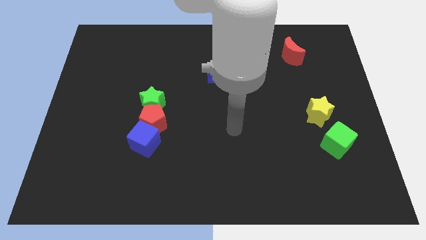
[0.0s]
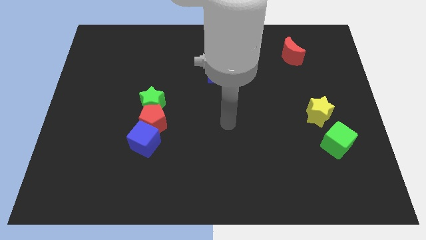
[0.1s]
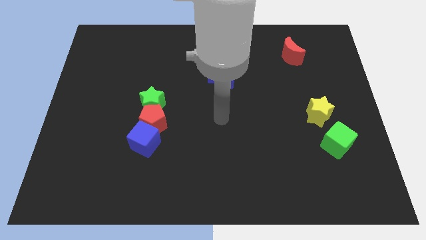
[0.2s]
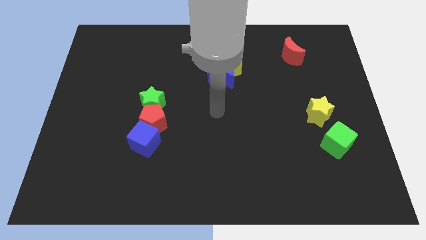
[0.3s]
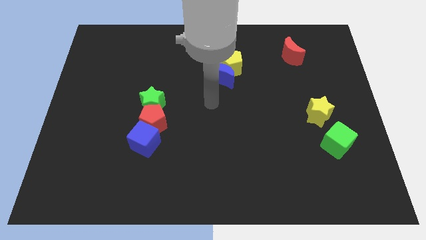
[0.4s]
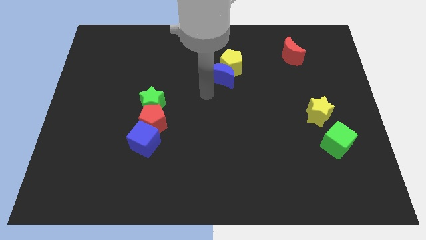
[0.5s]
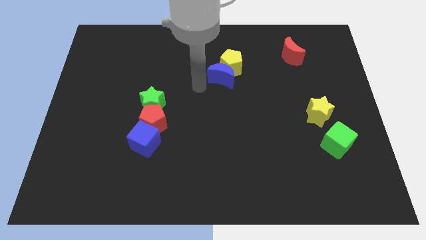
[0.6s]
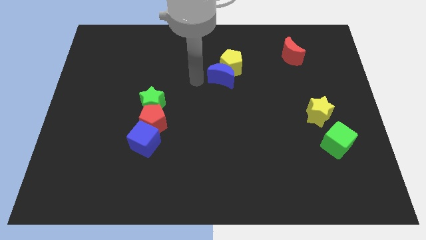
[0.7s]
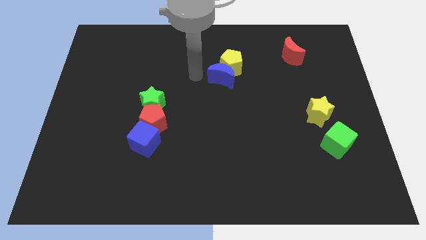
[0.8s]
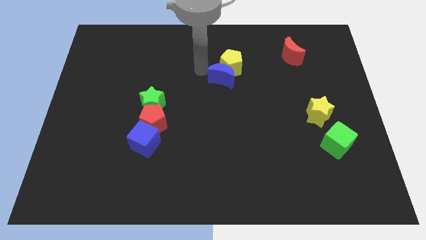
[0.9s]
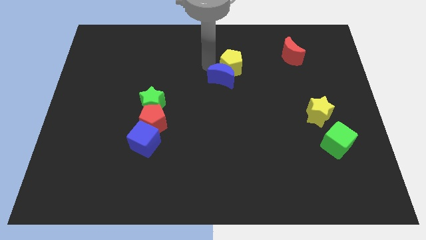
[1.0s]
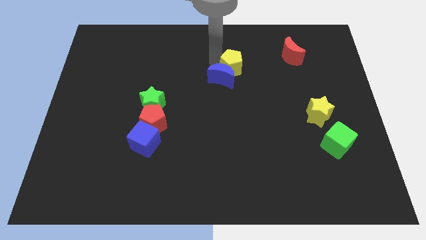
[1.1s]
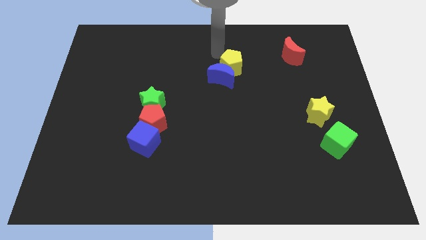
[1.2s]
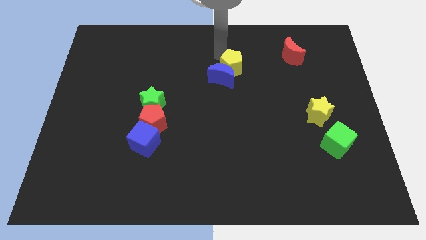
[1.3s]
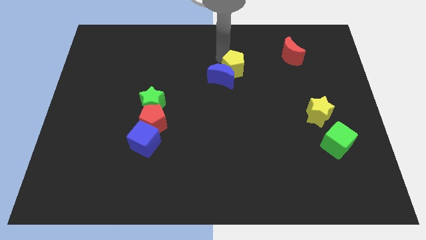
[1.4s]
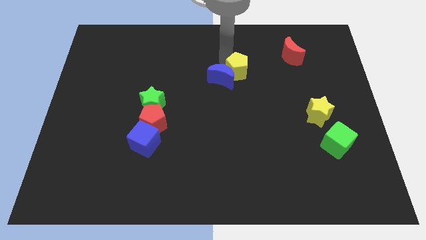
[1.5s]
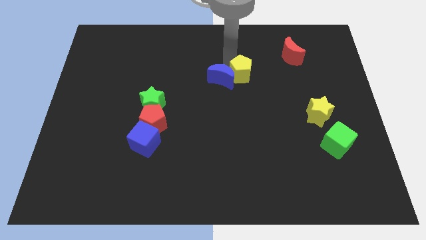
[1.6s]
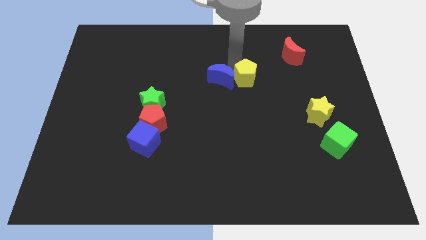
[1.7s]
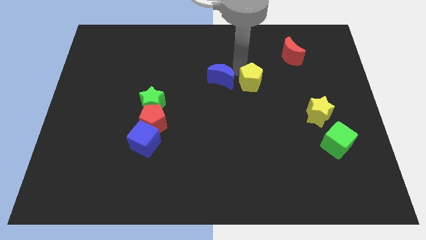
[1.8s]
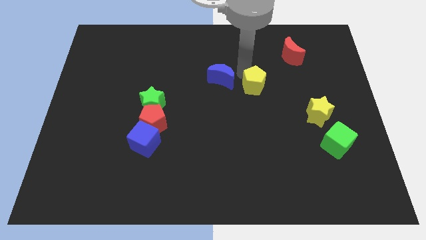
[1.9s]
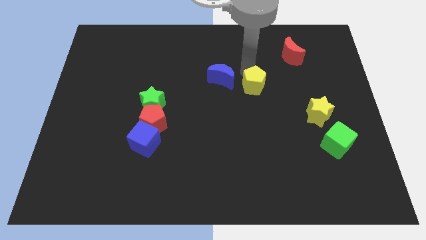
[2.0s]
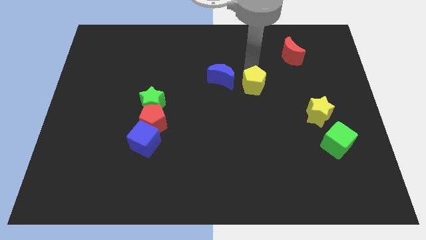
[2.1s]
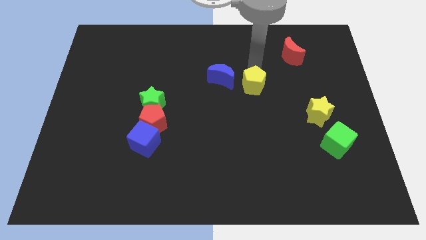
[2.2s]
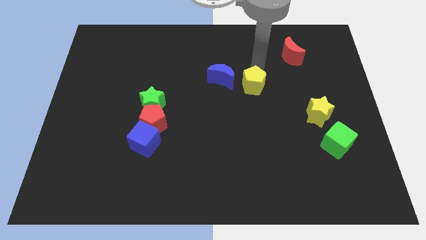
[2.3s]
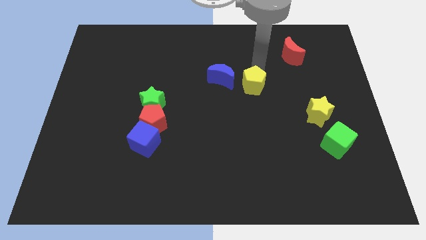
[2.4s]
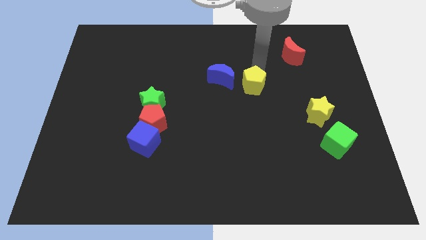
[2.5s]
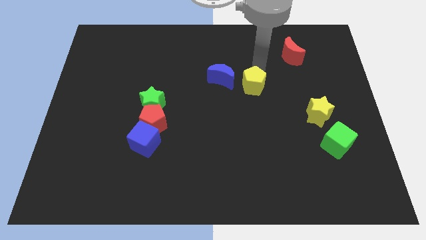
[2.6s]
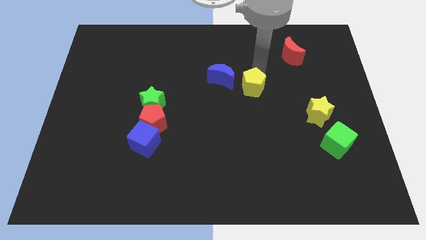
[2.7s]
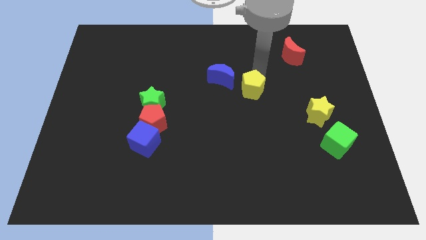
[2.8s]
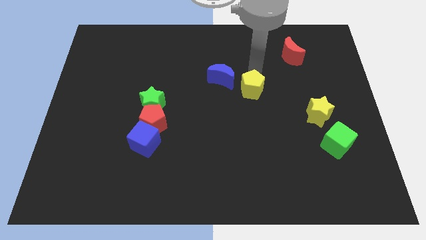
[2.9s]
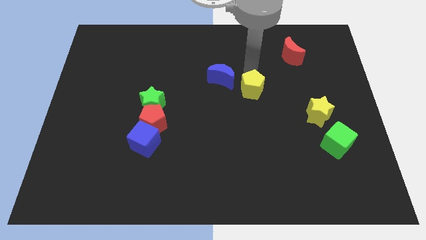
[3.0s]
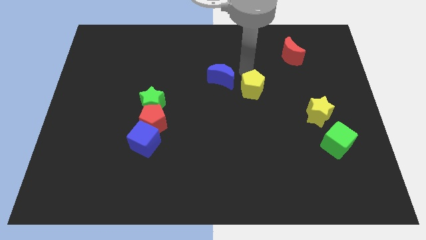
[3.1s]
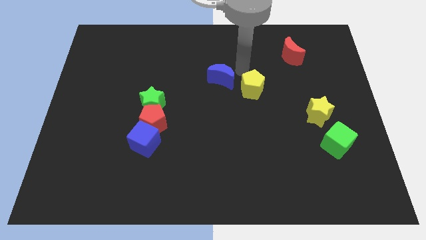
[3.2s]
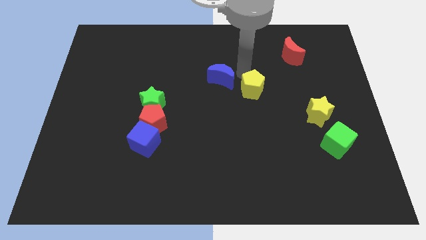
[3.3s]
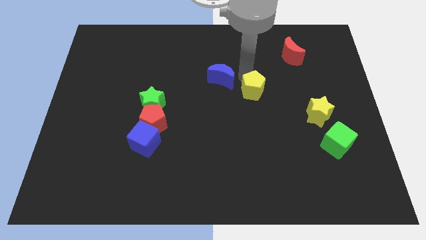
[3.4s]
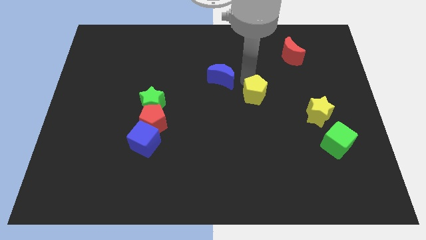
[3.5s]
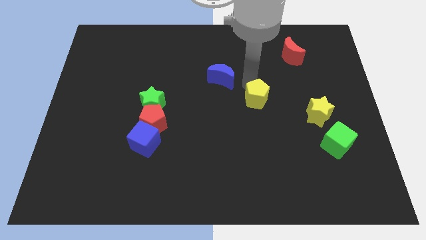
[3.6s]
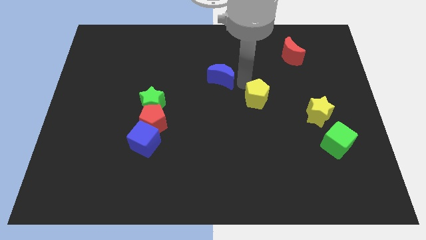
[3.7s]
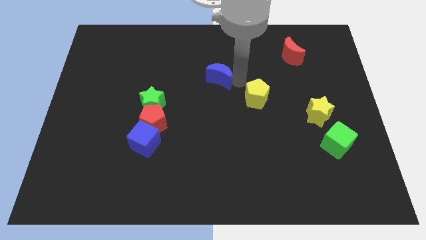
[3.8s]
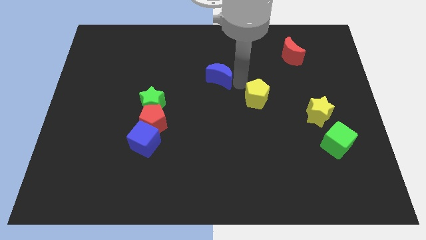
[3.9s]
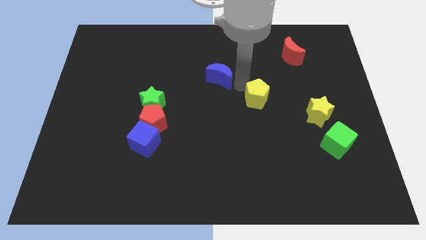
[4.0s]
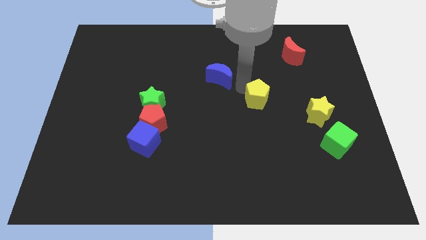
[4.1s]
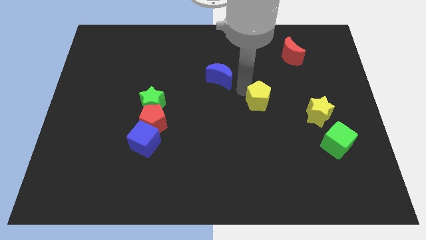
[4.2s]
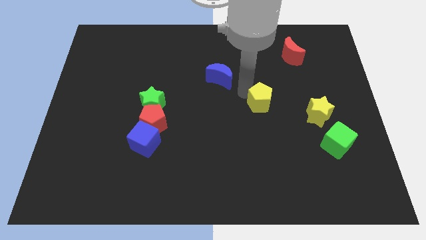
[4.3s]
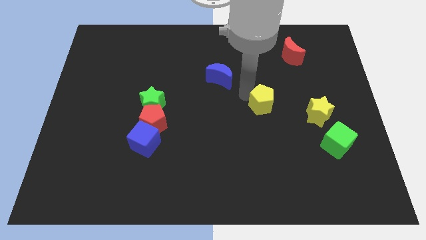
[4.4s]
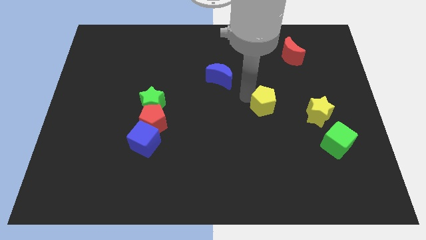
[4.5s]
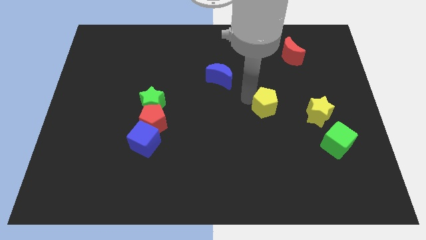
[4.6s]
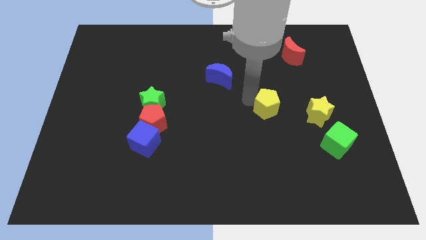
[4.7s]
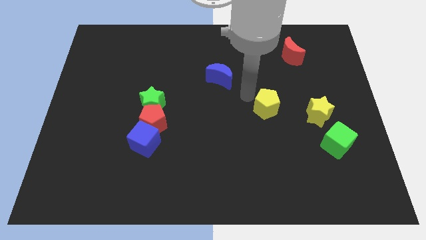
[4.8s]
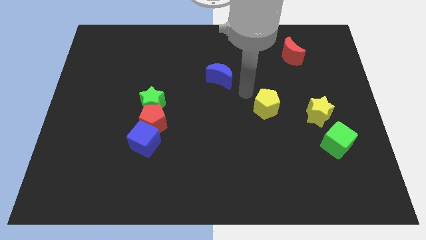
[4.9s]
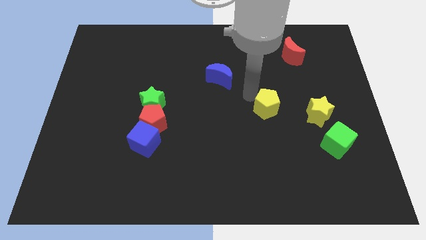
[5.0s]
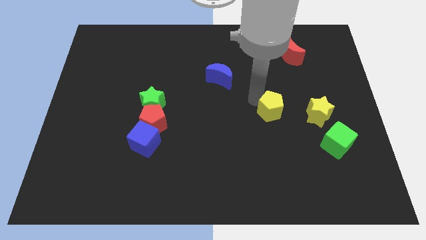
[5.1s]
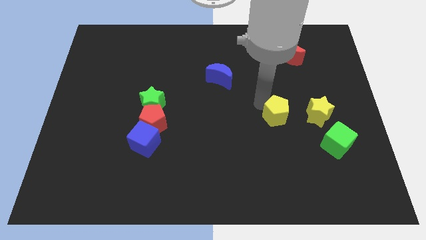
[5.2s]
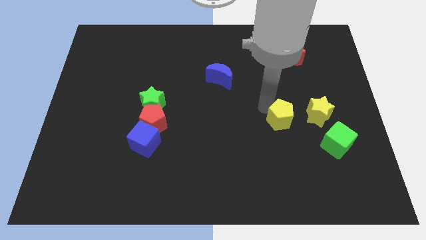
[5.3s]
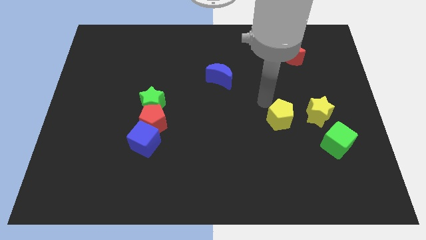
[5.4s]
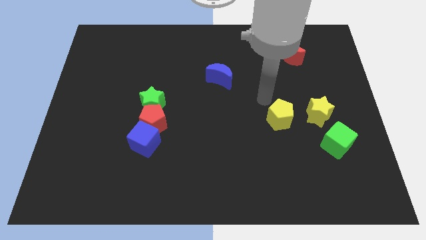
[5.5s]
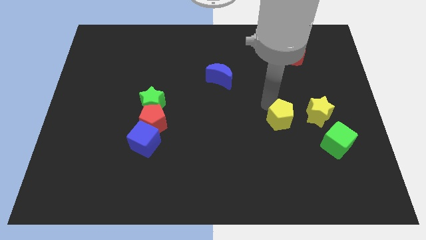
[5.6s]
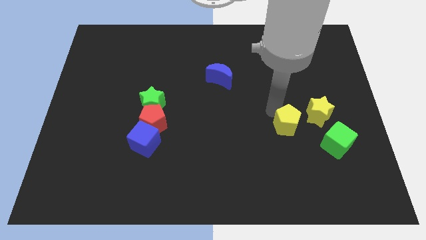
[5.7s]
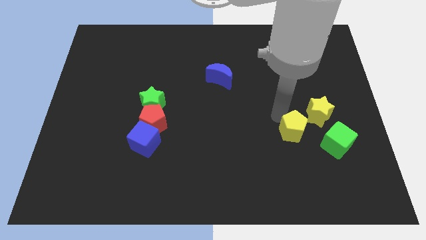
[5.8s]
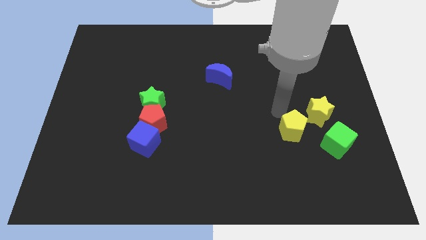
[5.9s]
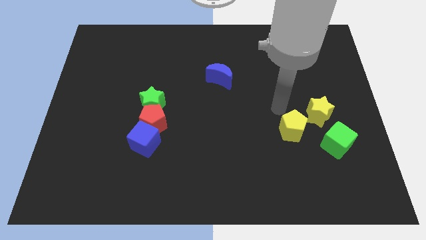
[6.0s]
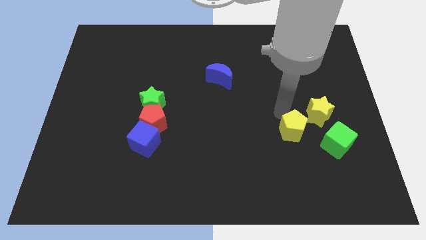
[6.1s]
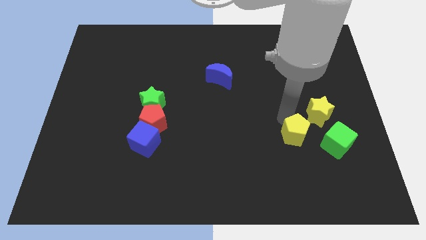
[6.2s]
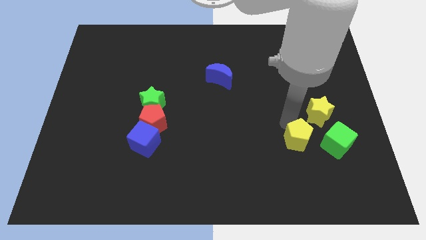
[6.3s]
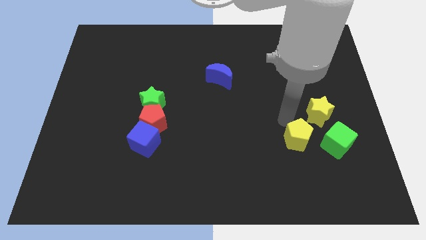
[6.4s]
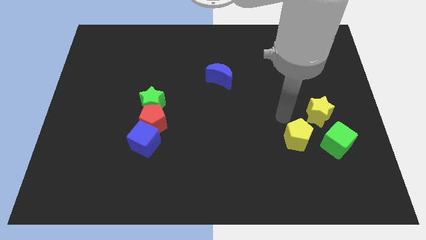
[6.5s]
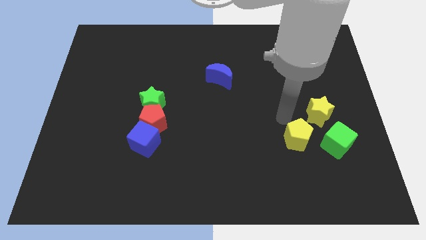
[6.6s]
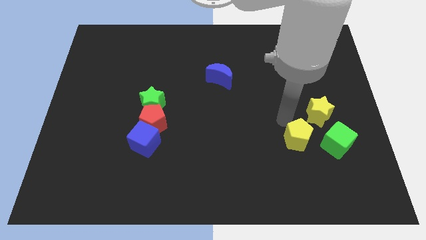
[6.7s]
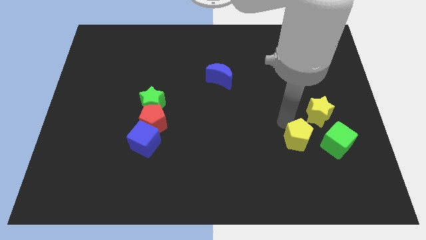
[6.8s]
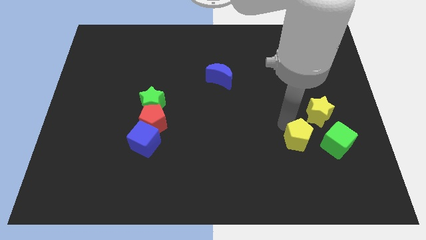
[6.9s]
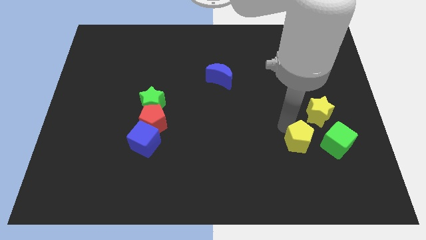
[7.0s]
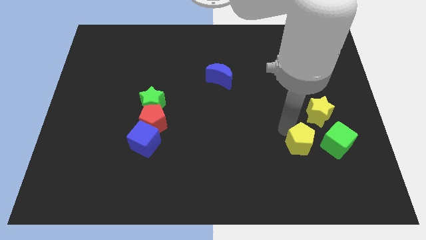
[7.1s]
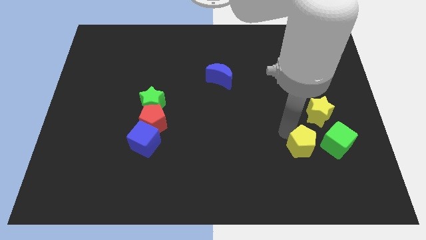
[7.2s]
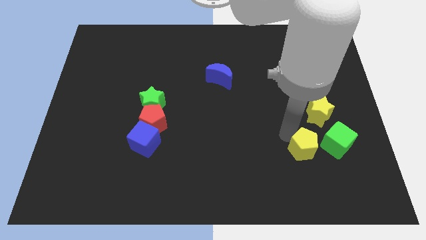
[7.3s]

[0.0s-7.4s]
slide the yellow pentagon diagonally down and to the left of the green cube
